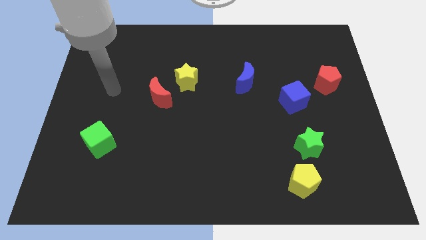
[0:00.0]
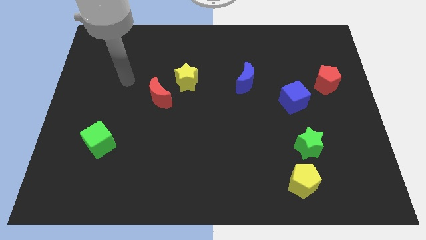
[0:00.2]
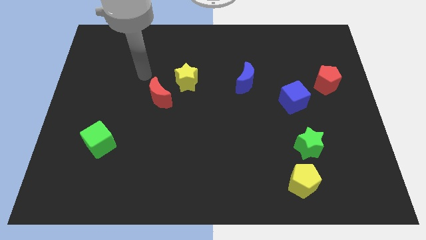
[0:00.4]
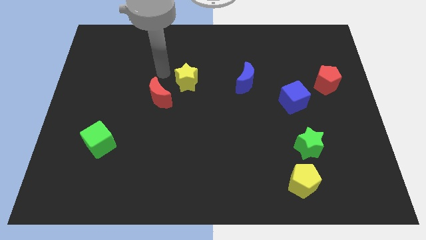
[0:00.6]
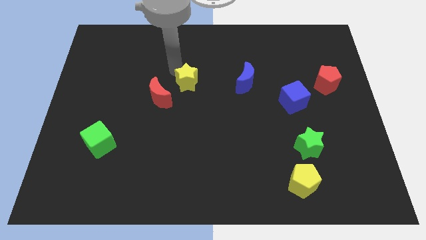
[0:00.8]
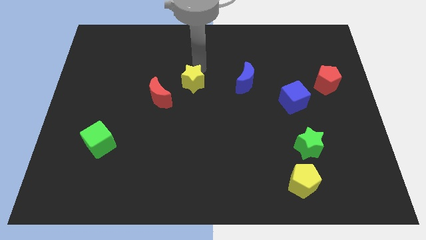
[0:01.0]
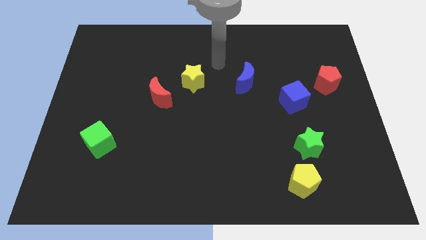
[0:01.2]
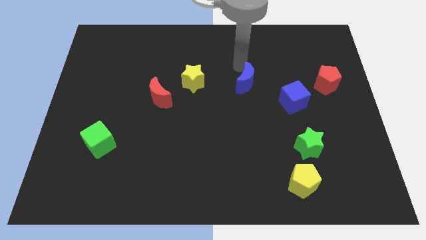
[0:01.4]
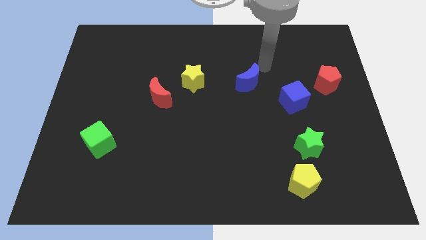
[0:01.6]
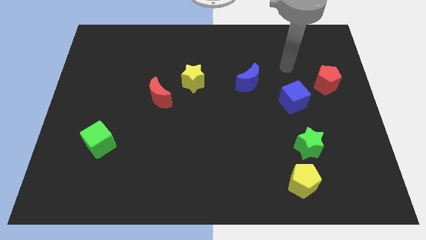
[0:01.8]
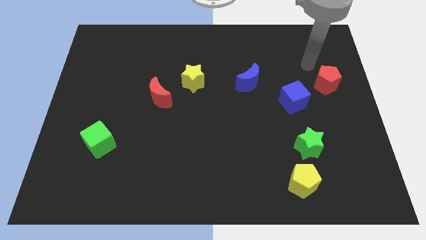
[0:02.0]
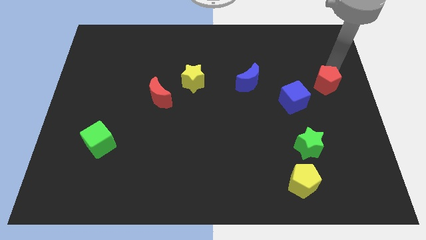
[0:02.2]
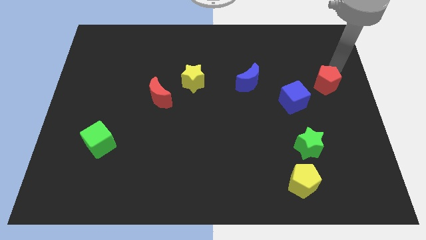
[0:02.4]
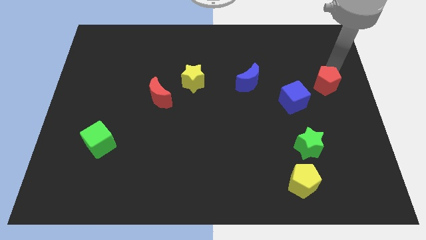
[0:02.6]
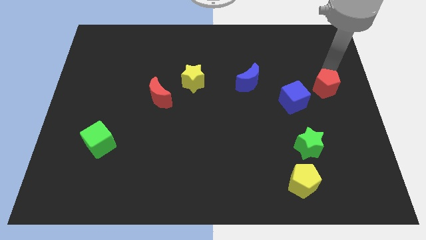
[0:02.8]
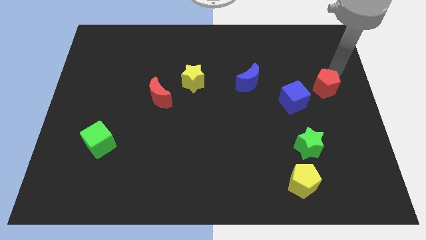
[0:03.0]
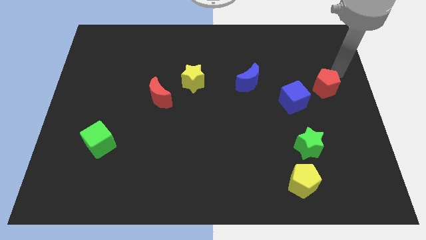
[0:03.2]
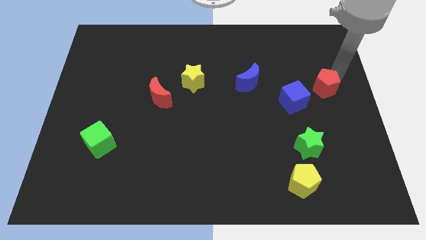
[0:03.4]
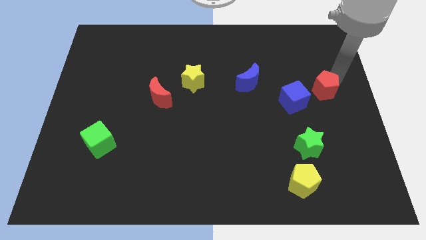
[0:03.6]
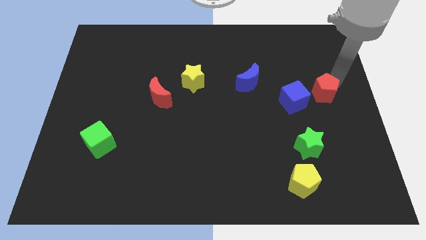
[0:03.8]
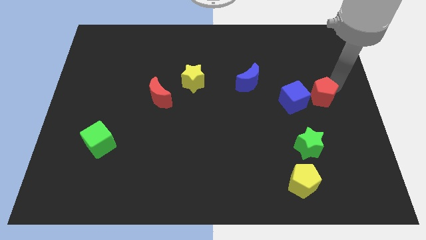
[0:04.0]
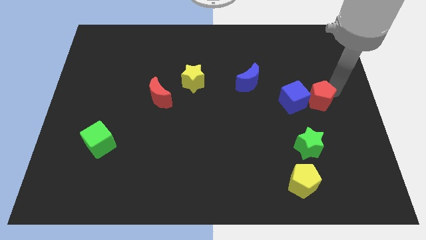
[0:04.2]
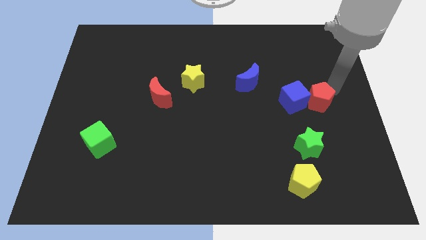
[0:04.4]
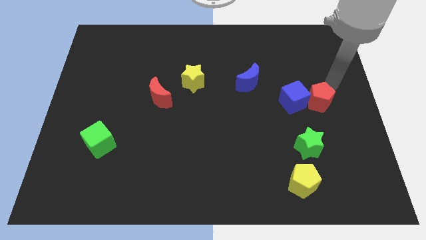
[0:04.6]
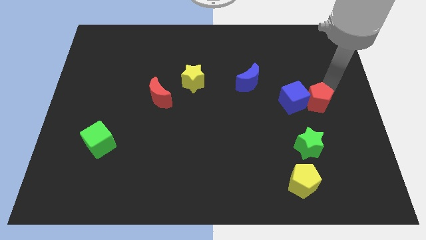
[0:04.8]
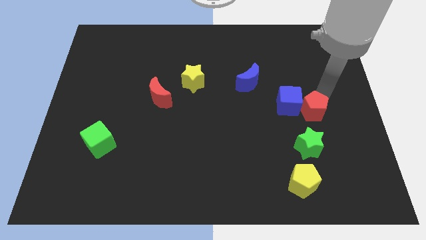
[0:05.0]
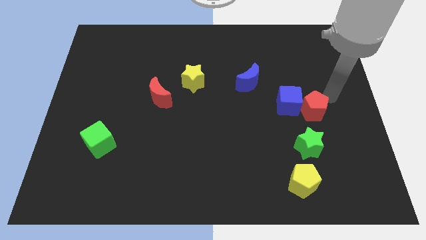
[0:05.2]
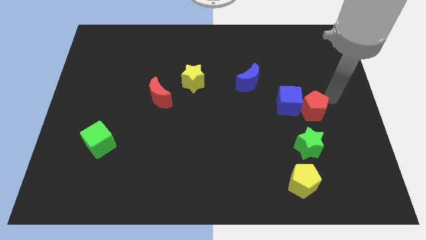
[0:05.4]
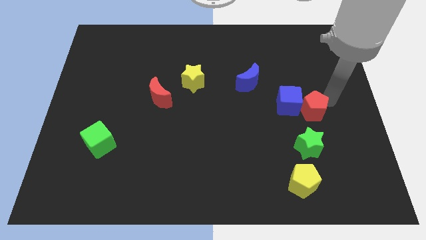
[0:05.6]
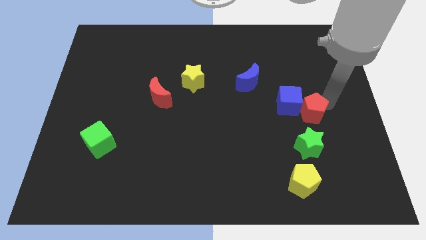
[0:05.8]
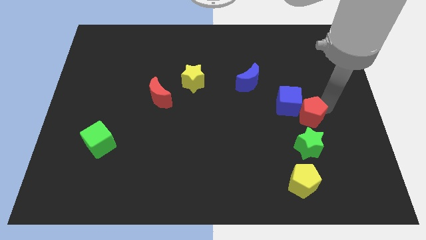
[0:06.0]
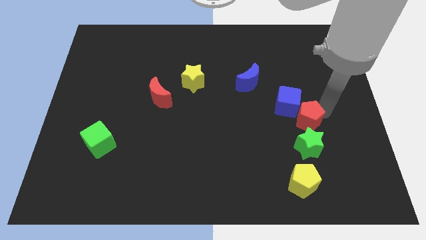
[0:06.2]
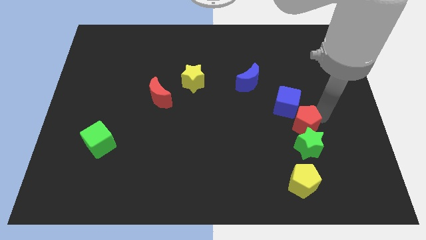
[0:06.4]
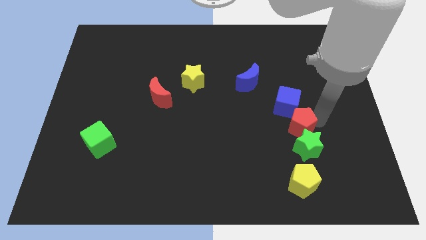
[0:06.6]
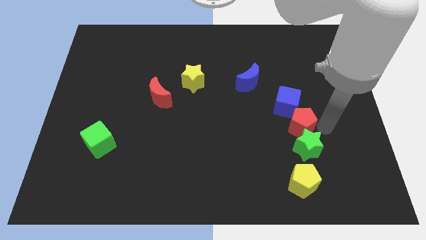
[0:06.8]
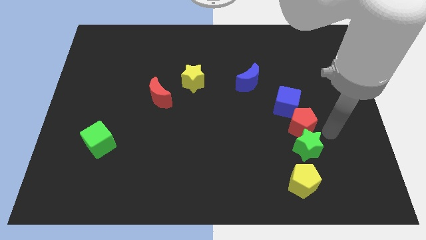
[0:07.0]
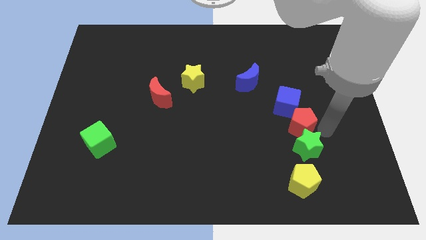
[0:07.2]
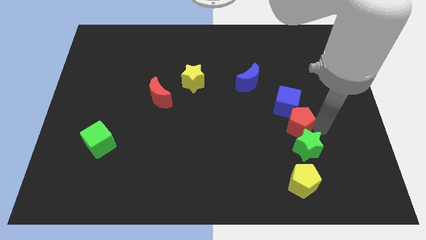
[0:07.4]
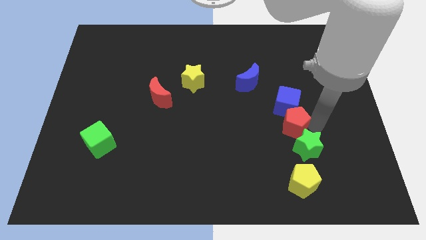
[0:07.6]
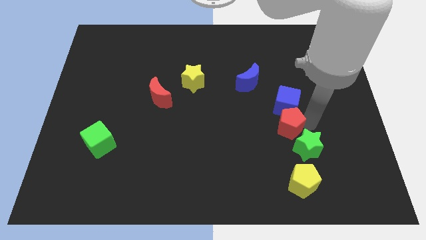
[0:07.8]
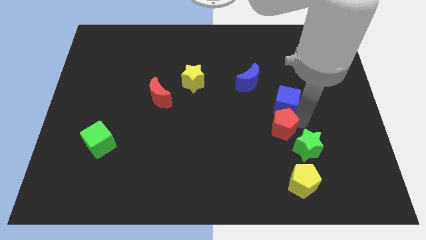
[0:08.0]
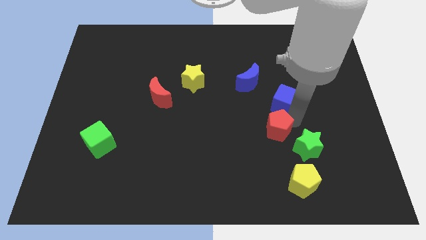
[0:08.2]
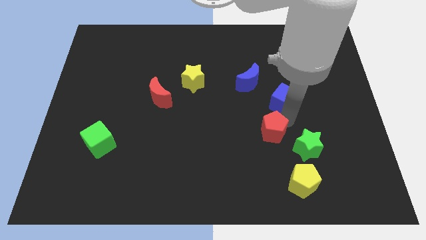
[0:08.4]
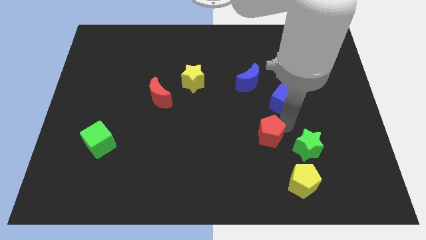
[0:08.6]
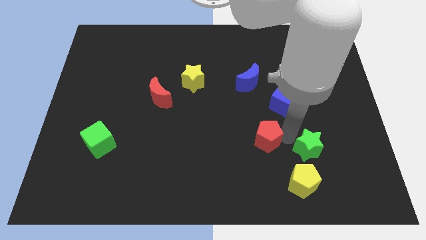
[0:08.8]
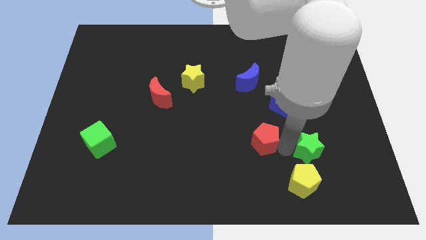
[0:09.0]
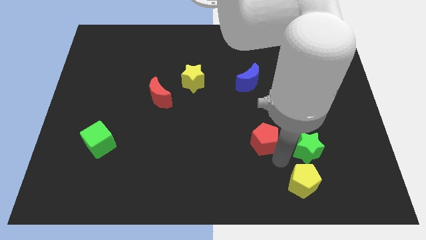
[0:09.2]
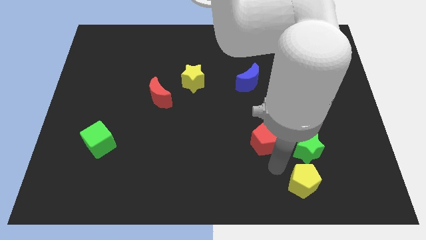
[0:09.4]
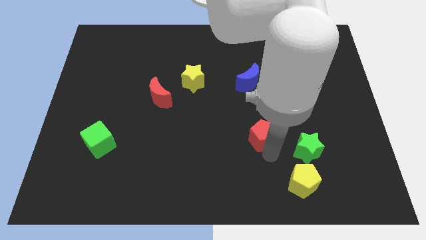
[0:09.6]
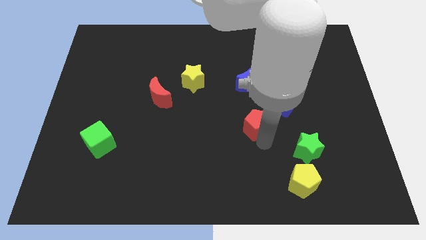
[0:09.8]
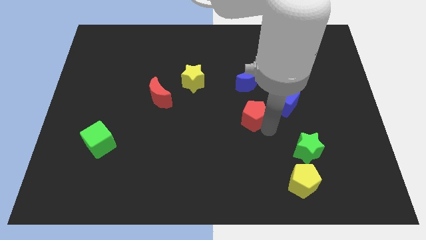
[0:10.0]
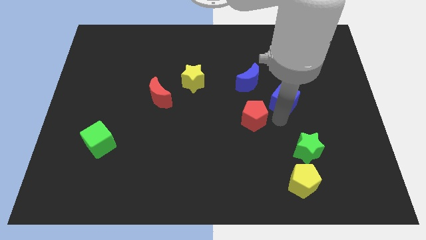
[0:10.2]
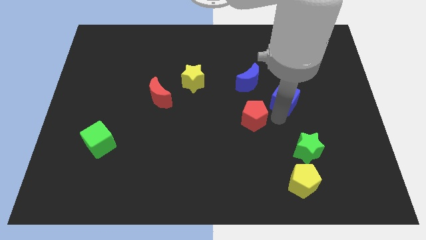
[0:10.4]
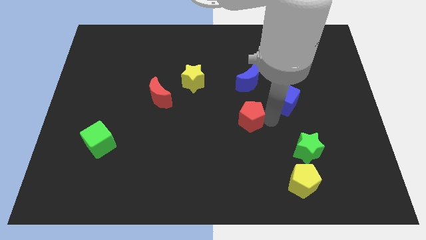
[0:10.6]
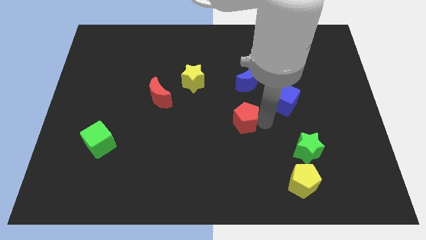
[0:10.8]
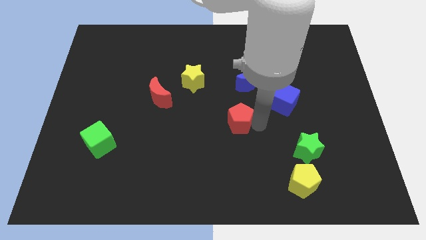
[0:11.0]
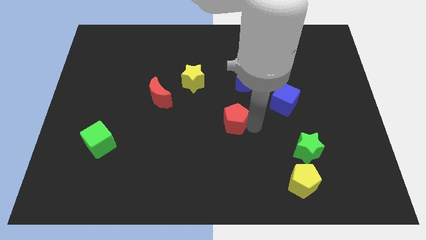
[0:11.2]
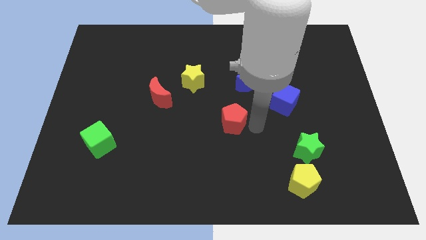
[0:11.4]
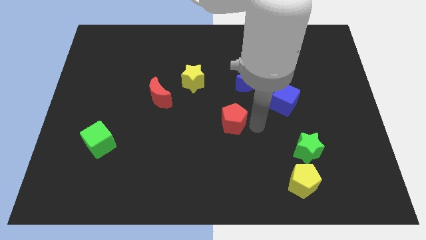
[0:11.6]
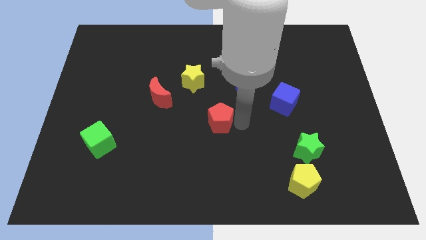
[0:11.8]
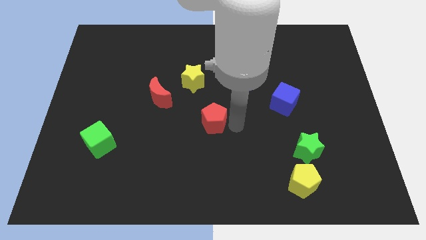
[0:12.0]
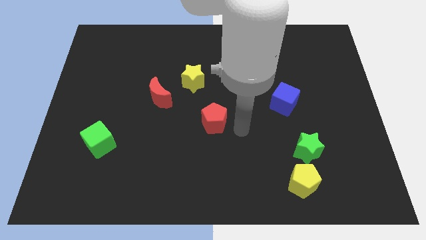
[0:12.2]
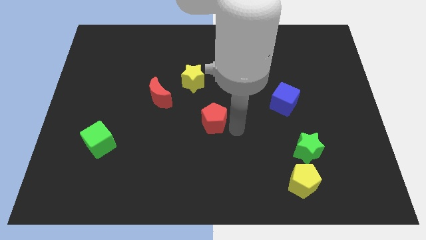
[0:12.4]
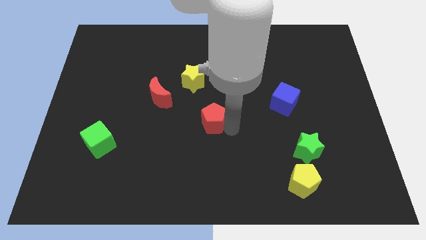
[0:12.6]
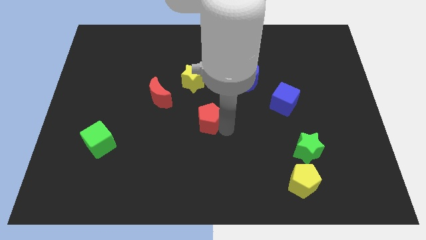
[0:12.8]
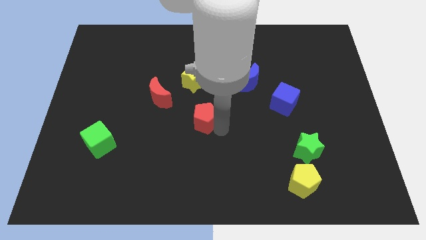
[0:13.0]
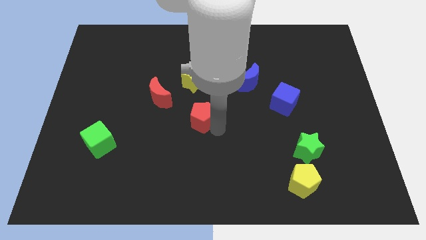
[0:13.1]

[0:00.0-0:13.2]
push the red pentagon diagonally down and to the right of the red moon
